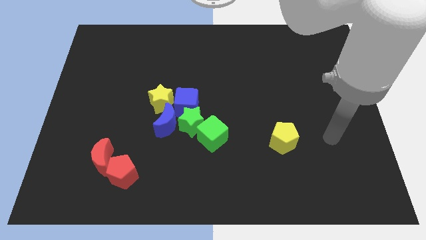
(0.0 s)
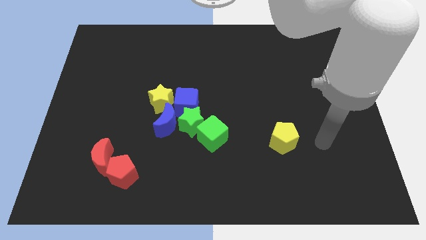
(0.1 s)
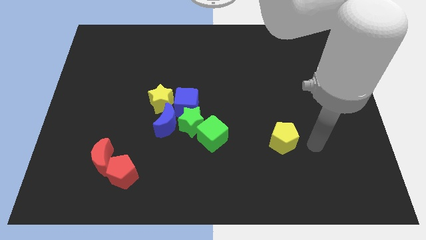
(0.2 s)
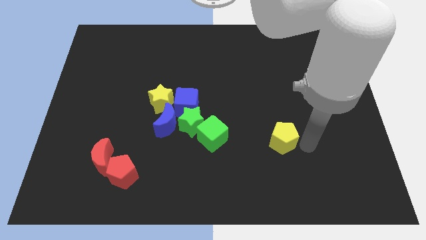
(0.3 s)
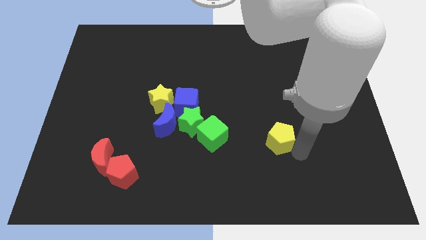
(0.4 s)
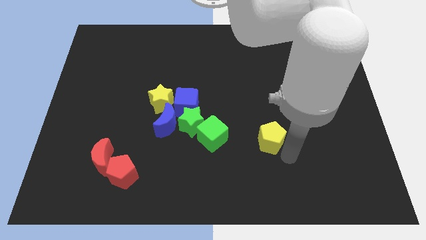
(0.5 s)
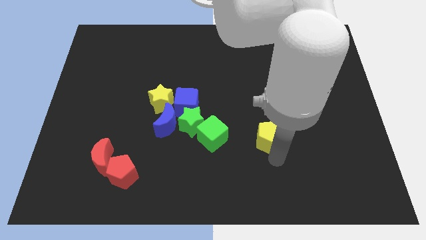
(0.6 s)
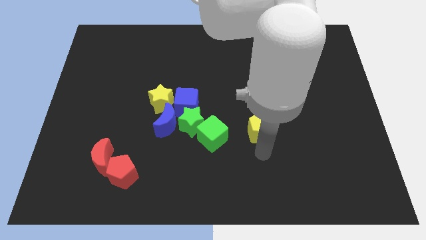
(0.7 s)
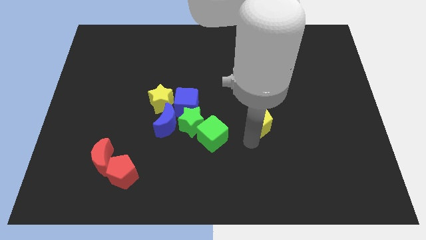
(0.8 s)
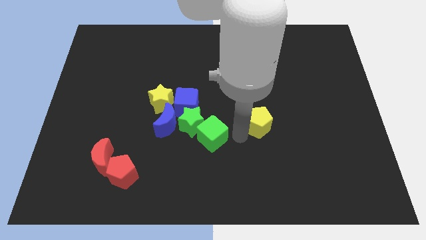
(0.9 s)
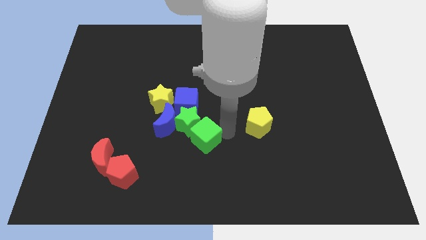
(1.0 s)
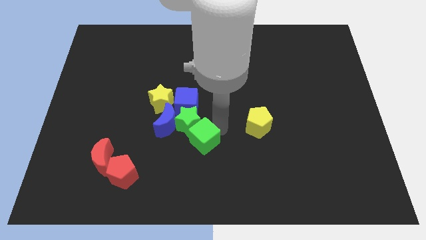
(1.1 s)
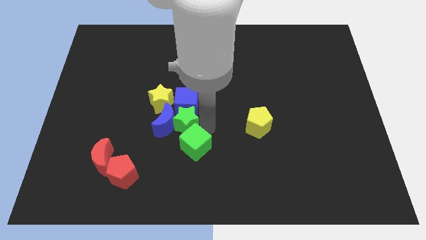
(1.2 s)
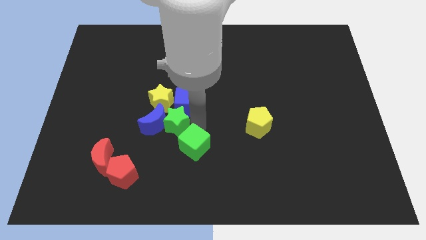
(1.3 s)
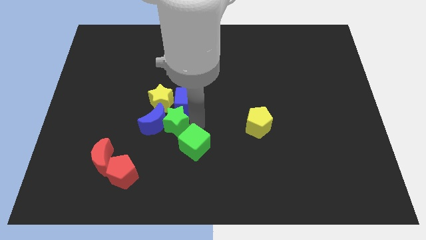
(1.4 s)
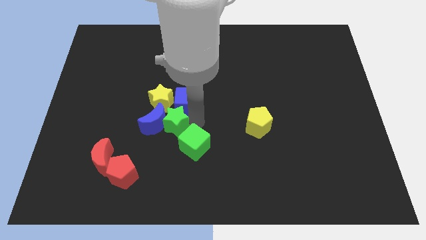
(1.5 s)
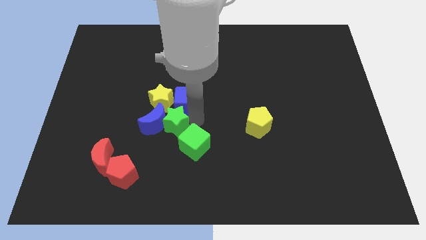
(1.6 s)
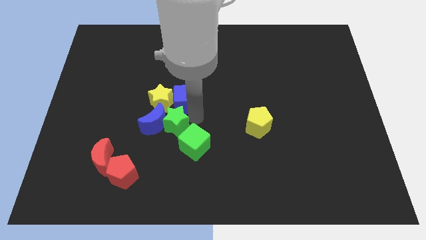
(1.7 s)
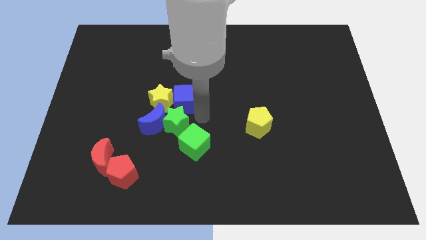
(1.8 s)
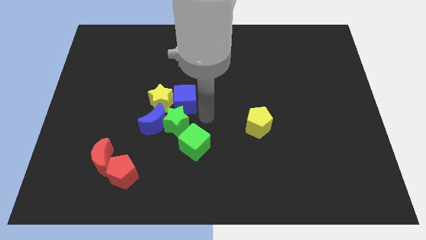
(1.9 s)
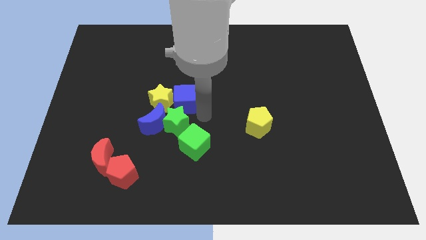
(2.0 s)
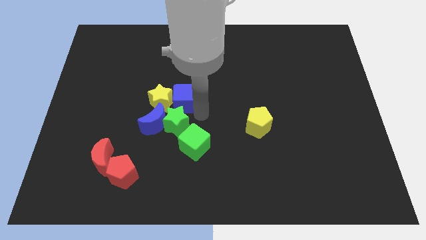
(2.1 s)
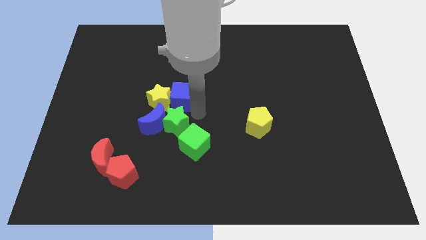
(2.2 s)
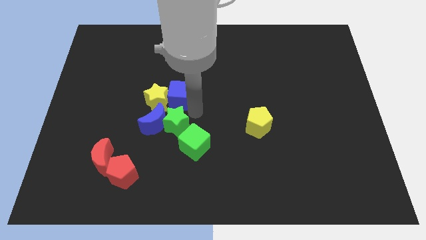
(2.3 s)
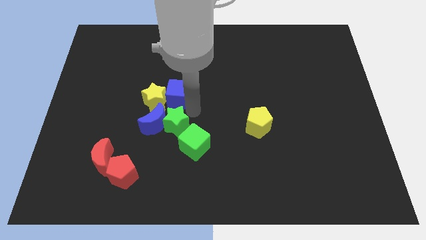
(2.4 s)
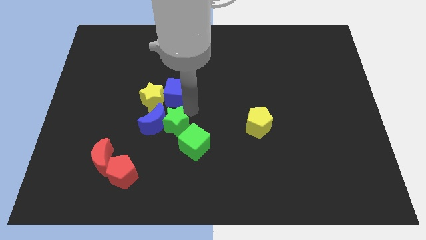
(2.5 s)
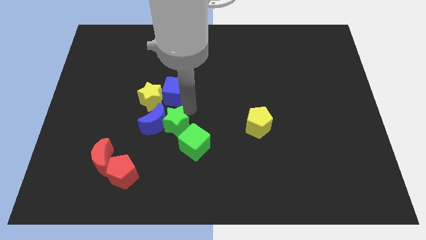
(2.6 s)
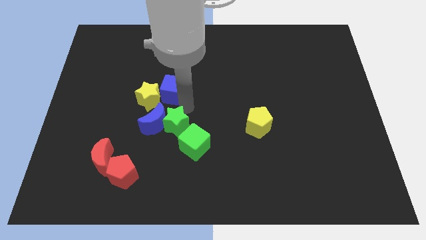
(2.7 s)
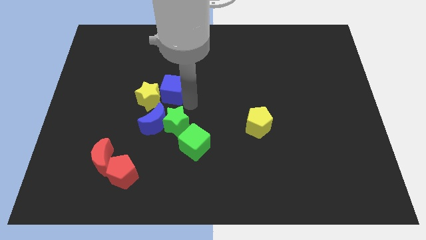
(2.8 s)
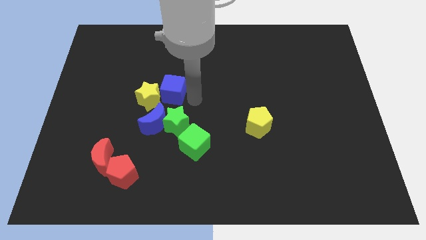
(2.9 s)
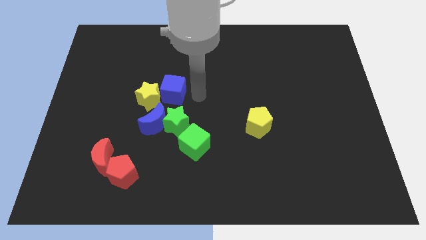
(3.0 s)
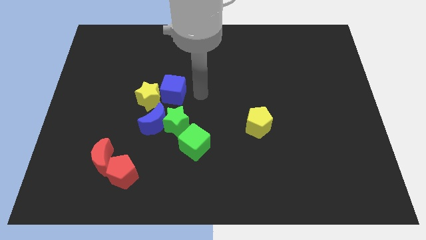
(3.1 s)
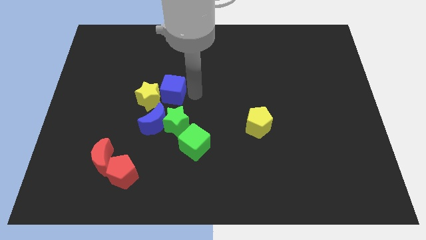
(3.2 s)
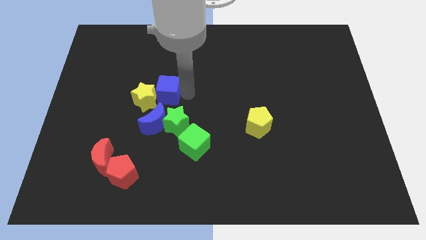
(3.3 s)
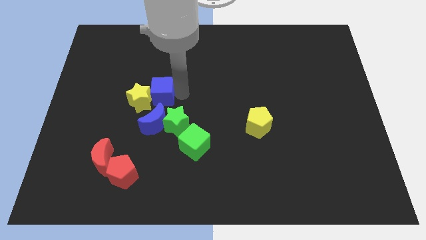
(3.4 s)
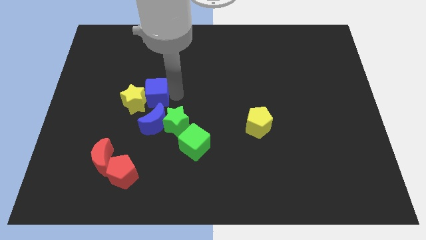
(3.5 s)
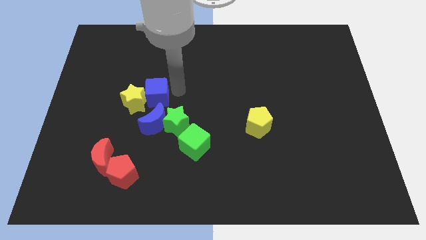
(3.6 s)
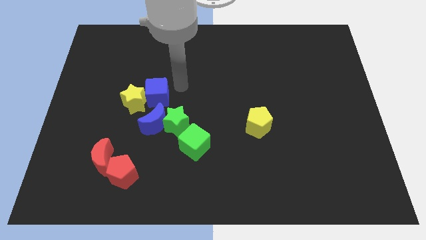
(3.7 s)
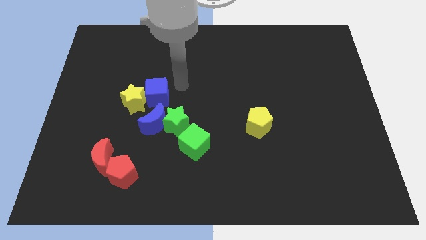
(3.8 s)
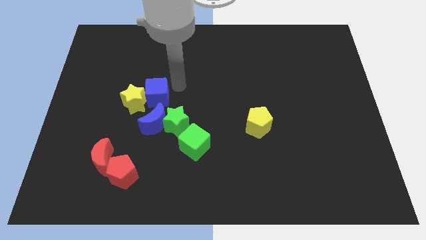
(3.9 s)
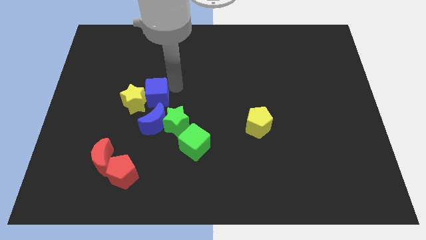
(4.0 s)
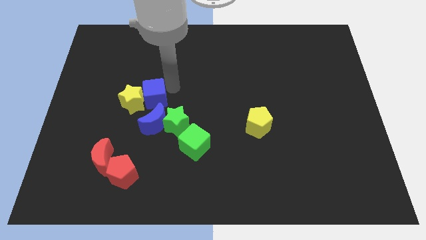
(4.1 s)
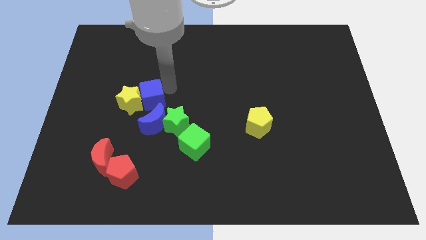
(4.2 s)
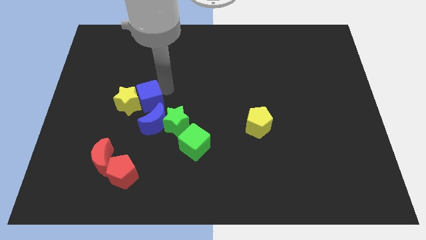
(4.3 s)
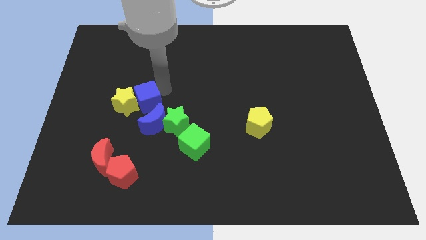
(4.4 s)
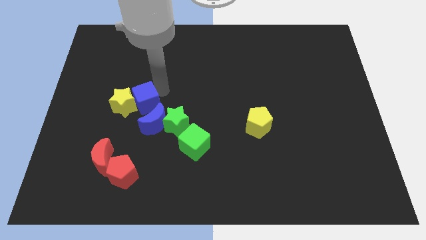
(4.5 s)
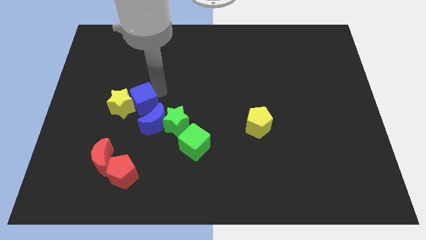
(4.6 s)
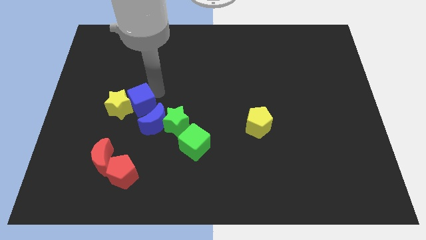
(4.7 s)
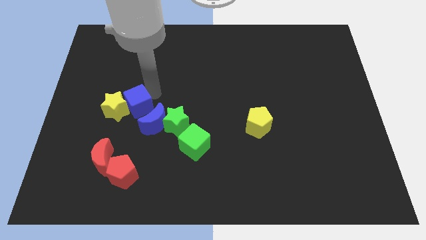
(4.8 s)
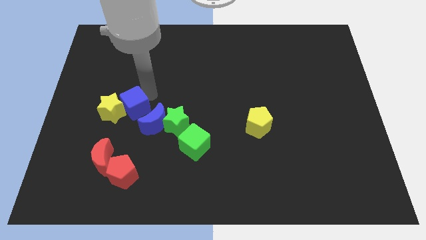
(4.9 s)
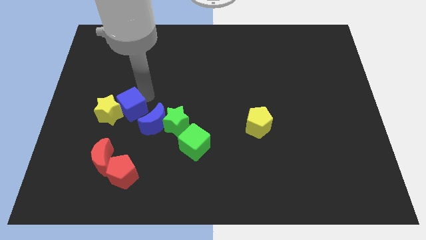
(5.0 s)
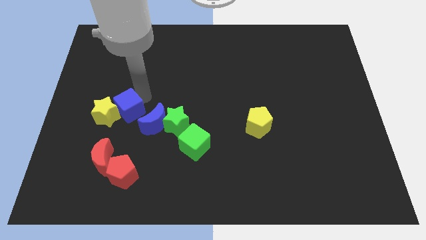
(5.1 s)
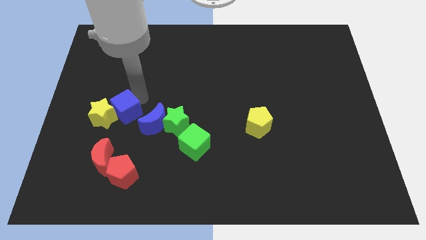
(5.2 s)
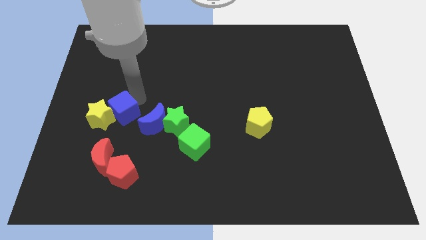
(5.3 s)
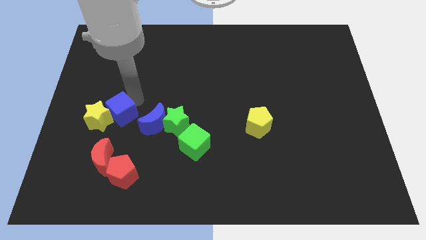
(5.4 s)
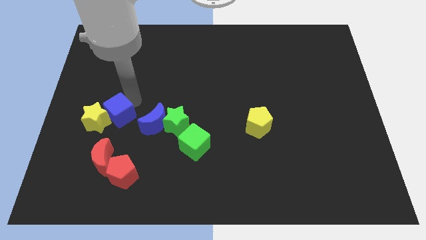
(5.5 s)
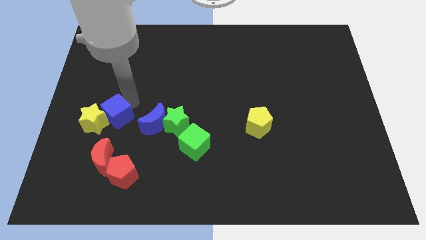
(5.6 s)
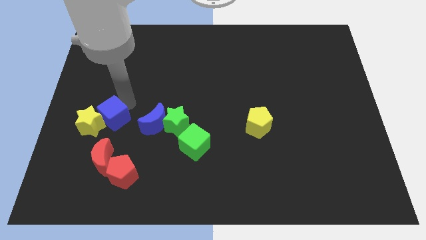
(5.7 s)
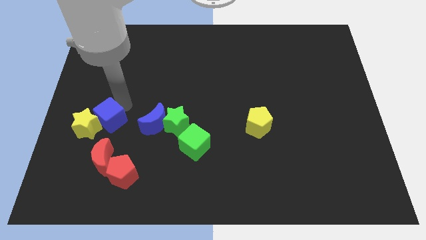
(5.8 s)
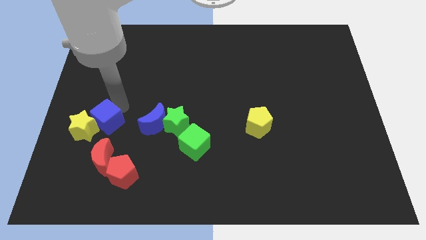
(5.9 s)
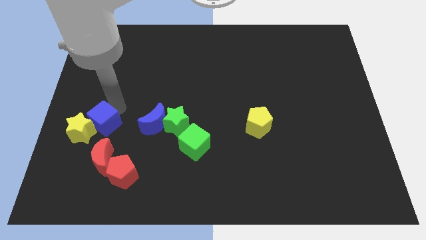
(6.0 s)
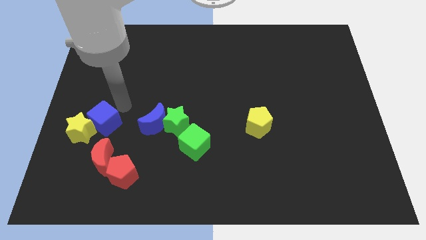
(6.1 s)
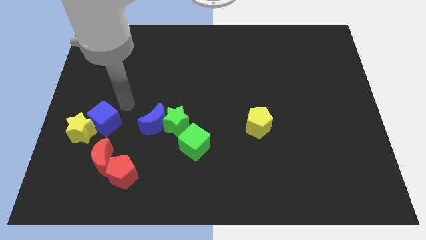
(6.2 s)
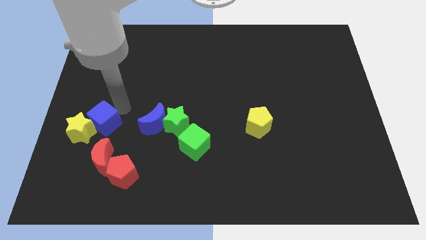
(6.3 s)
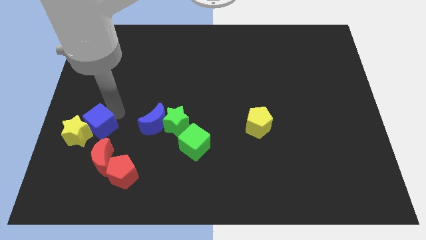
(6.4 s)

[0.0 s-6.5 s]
move the blue cube to the top left of the red moon
